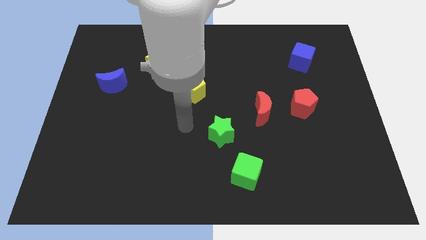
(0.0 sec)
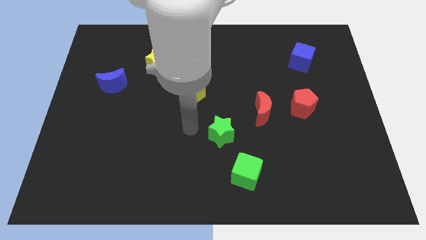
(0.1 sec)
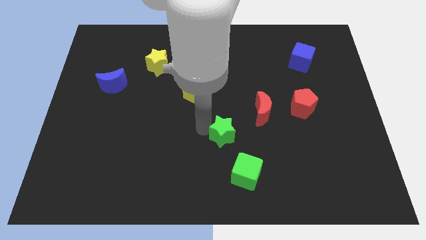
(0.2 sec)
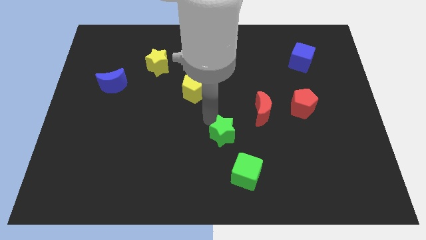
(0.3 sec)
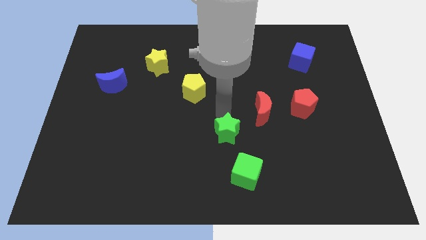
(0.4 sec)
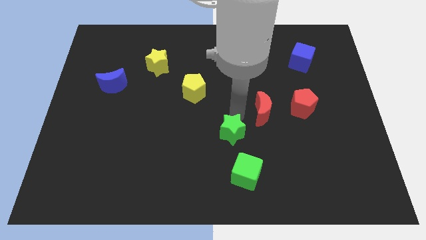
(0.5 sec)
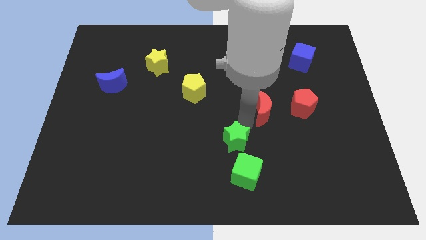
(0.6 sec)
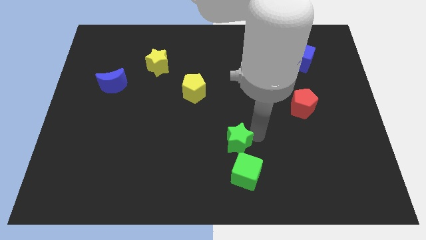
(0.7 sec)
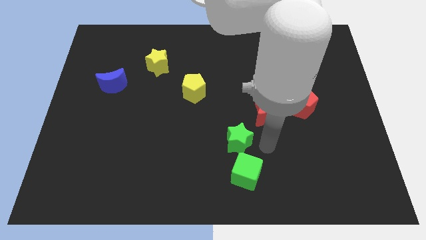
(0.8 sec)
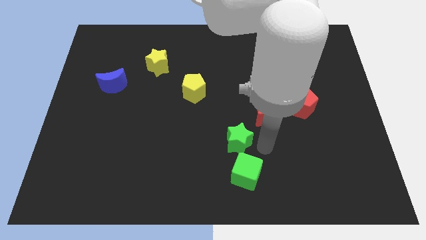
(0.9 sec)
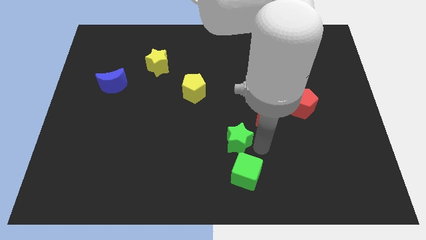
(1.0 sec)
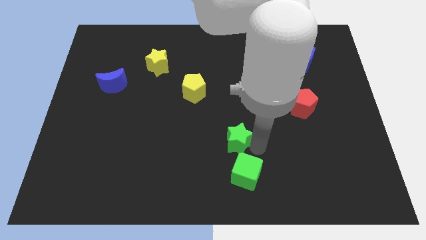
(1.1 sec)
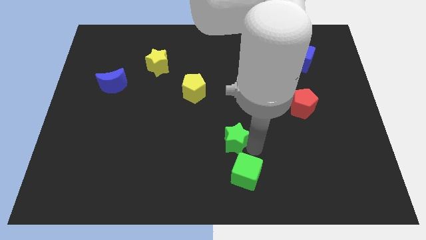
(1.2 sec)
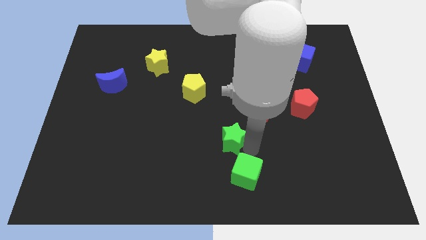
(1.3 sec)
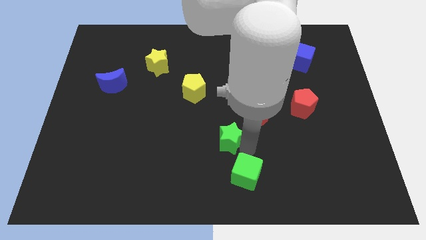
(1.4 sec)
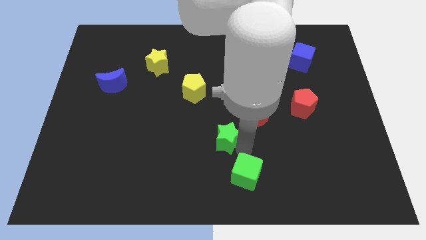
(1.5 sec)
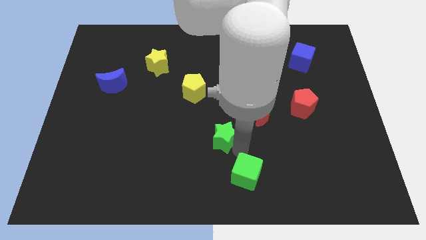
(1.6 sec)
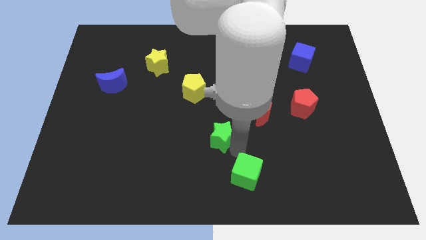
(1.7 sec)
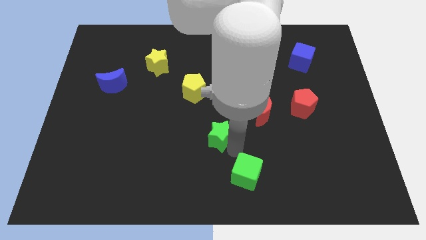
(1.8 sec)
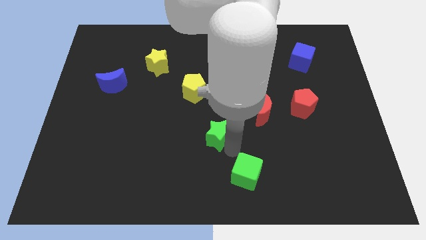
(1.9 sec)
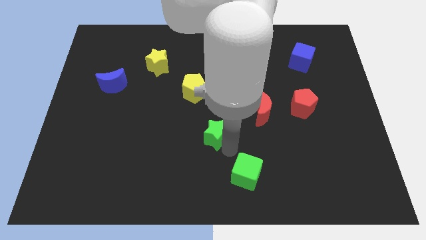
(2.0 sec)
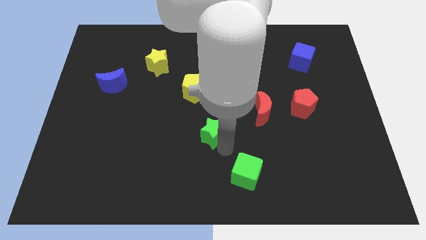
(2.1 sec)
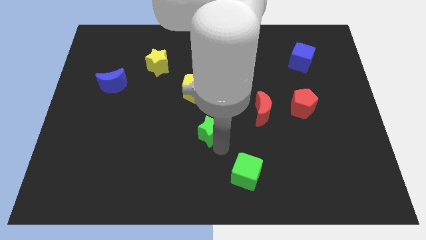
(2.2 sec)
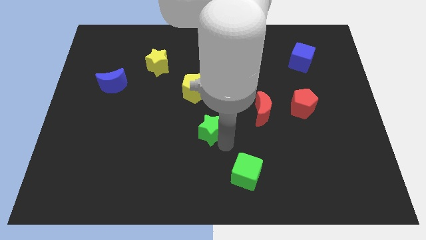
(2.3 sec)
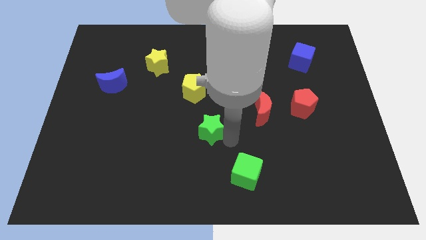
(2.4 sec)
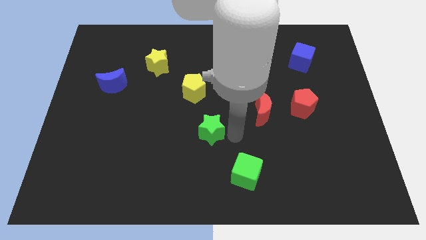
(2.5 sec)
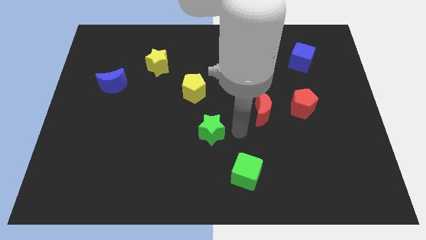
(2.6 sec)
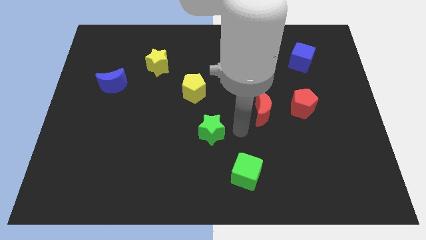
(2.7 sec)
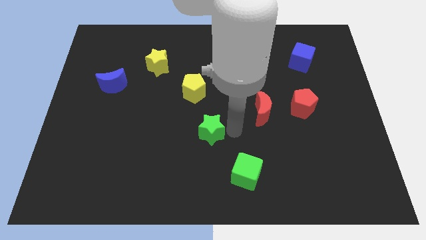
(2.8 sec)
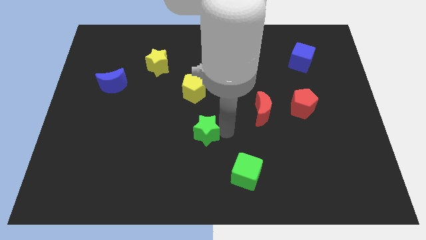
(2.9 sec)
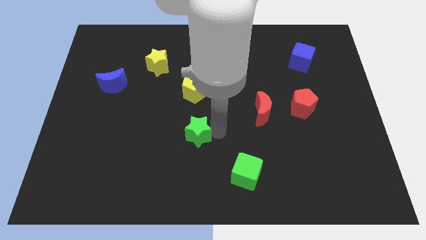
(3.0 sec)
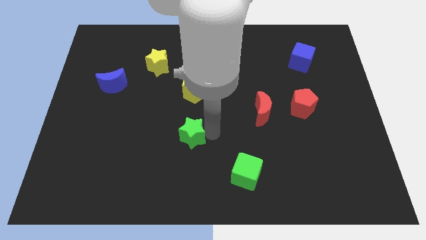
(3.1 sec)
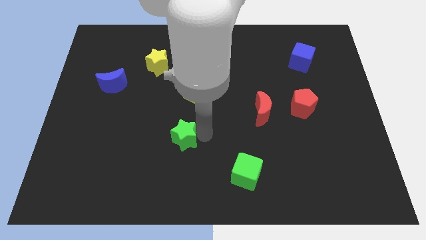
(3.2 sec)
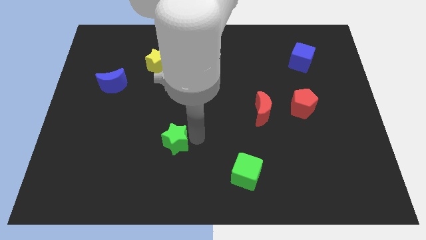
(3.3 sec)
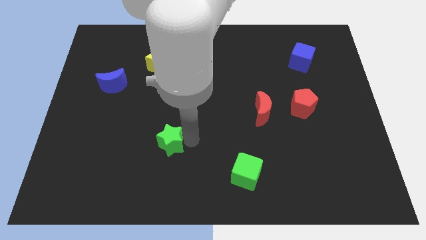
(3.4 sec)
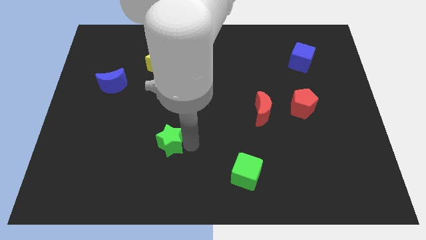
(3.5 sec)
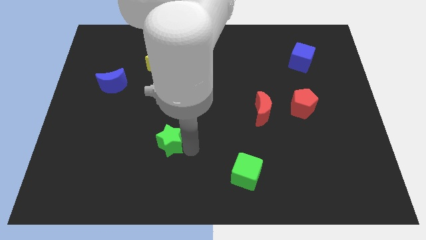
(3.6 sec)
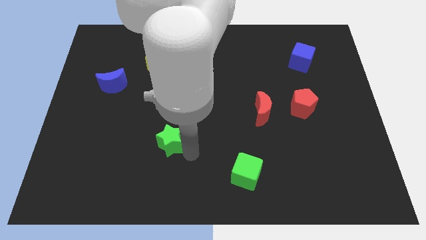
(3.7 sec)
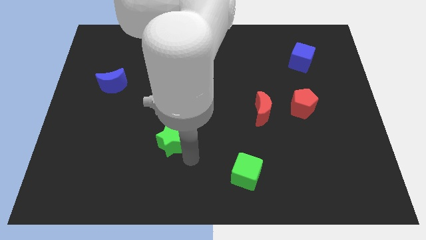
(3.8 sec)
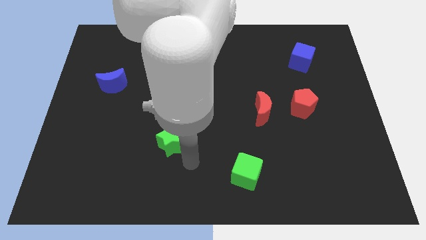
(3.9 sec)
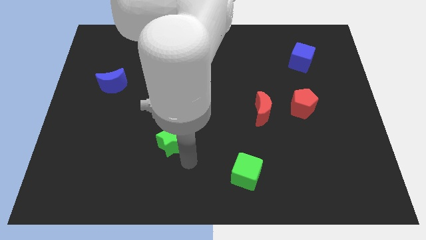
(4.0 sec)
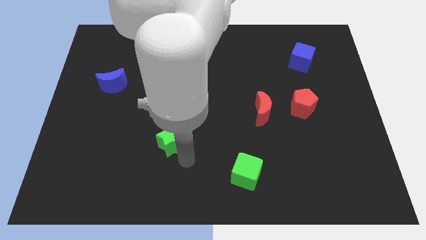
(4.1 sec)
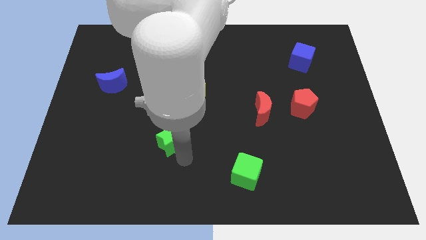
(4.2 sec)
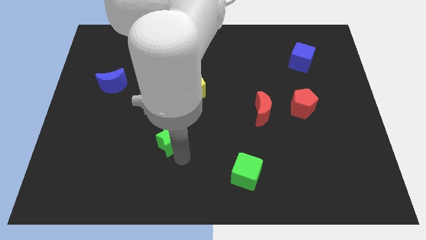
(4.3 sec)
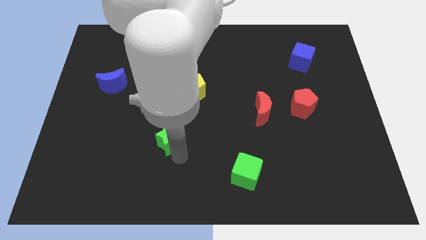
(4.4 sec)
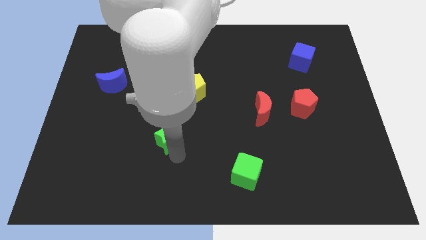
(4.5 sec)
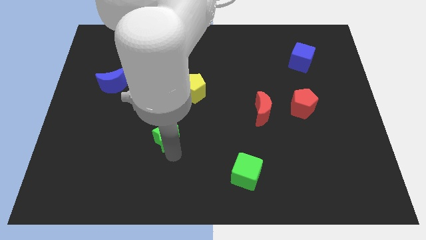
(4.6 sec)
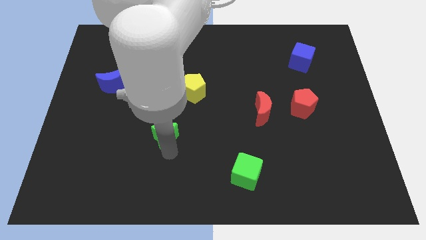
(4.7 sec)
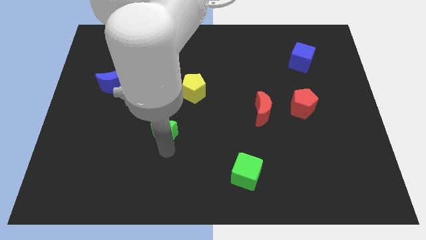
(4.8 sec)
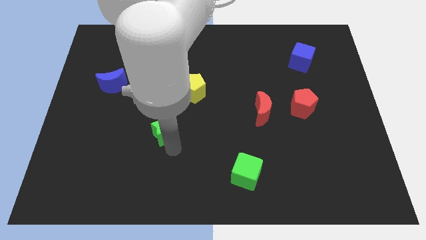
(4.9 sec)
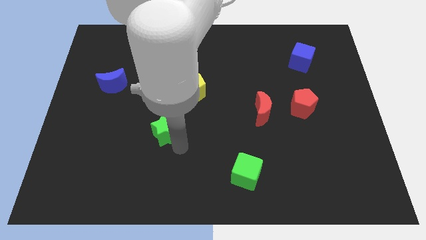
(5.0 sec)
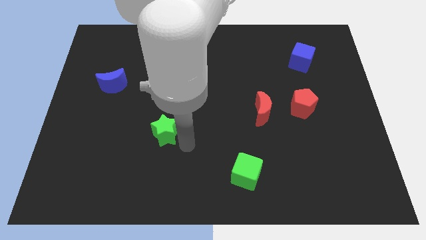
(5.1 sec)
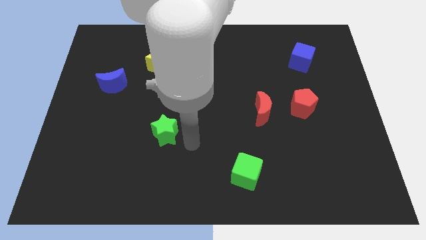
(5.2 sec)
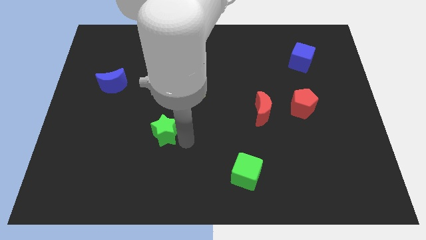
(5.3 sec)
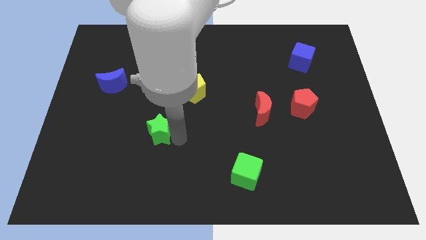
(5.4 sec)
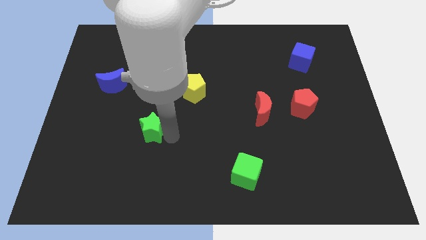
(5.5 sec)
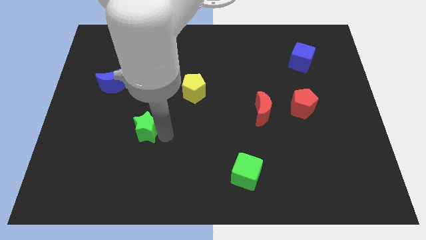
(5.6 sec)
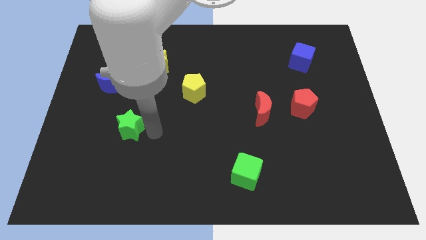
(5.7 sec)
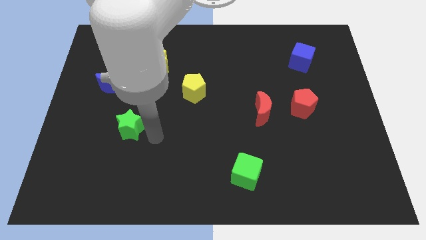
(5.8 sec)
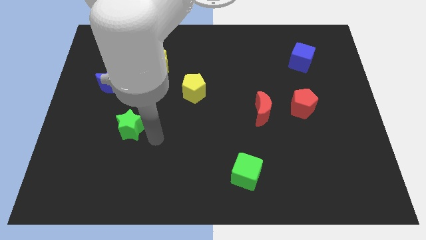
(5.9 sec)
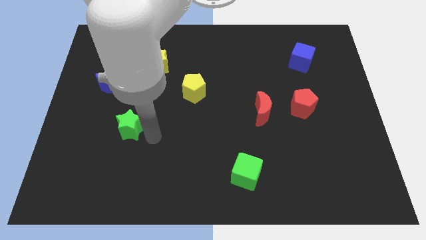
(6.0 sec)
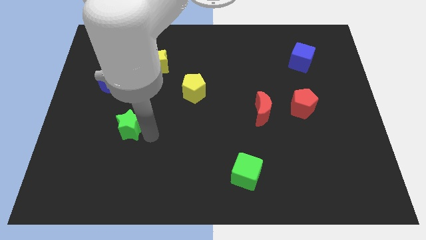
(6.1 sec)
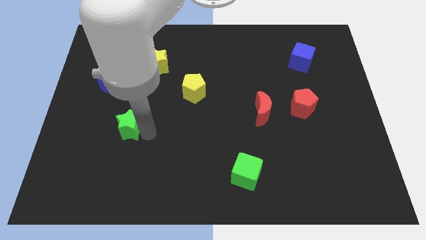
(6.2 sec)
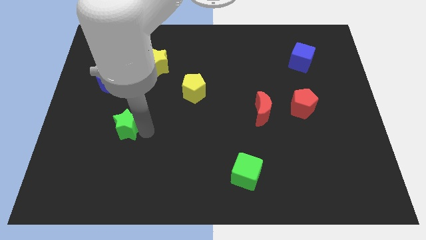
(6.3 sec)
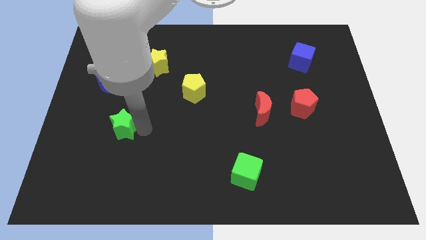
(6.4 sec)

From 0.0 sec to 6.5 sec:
move the green star to the bottom side of the blue moon

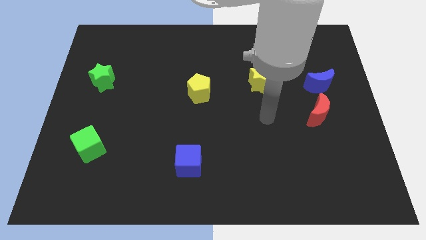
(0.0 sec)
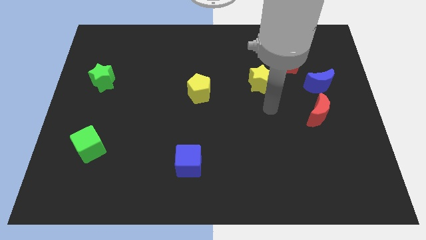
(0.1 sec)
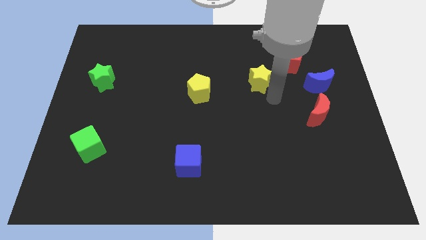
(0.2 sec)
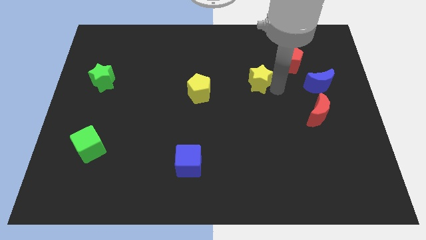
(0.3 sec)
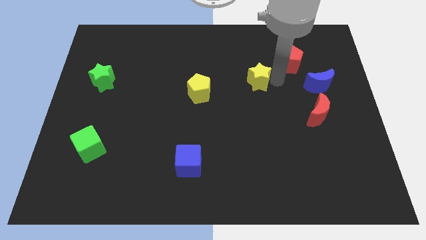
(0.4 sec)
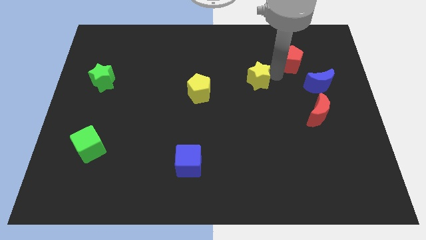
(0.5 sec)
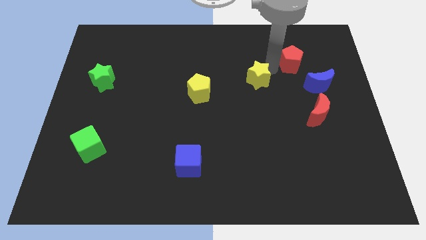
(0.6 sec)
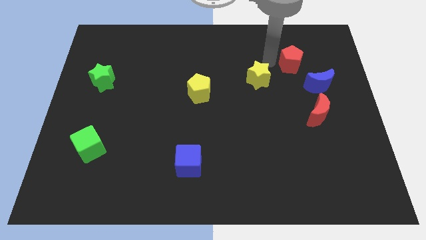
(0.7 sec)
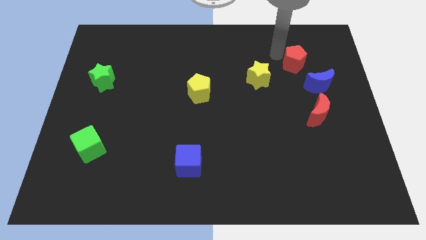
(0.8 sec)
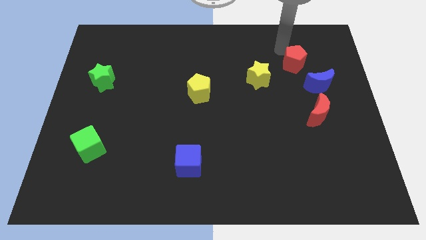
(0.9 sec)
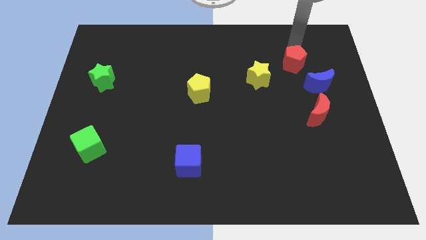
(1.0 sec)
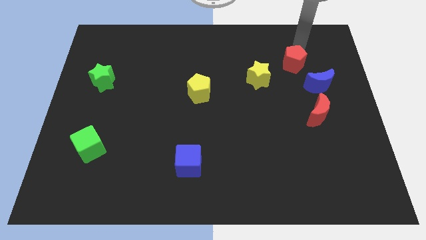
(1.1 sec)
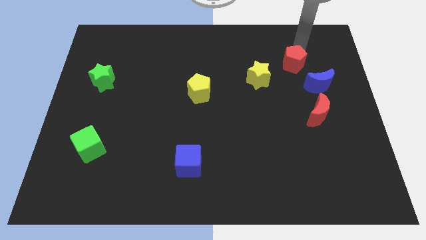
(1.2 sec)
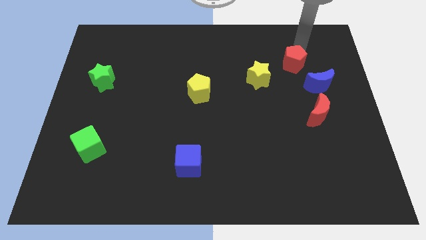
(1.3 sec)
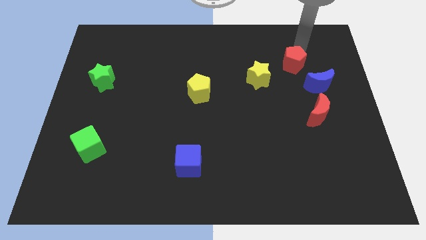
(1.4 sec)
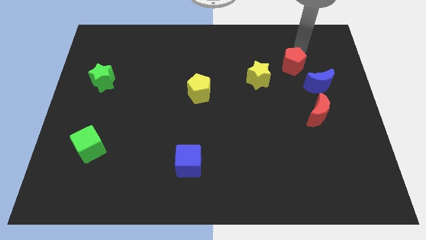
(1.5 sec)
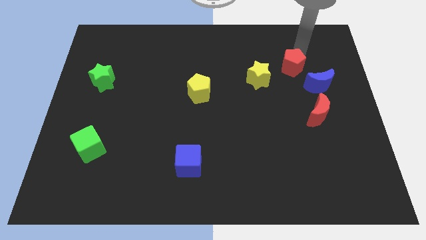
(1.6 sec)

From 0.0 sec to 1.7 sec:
put the red pentagon to the right of the yellow star
